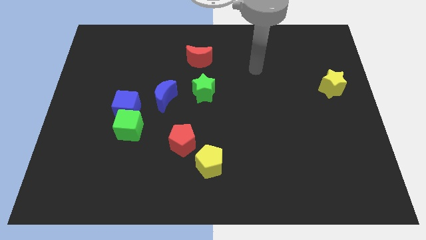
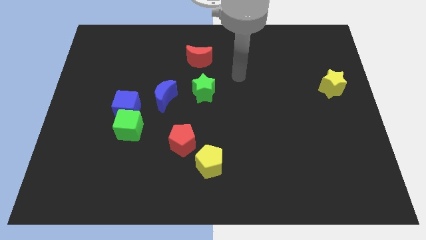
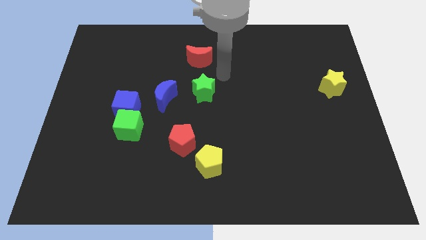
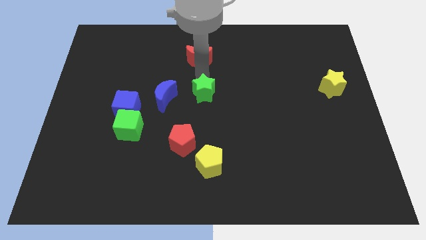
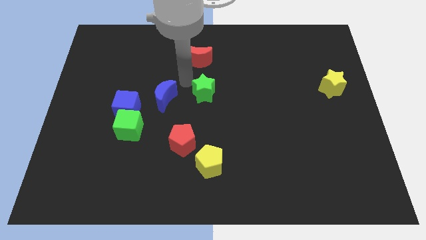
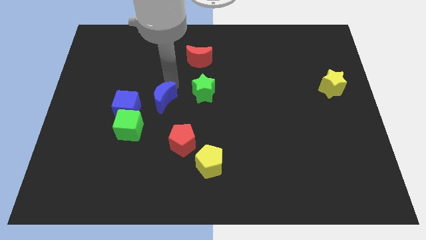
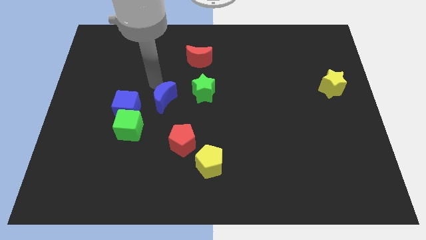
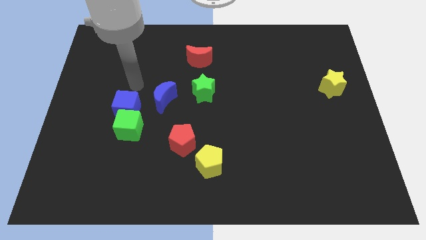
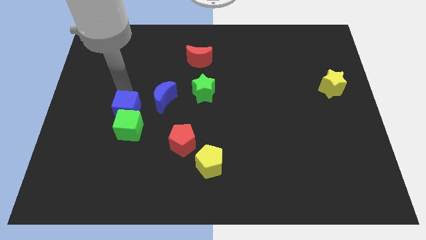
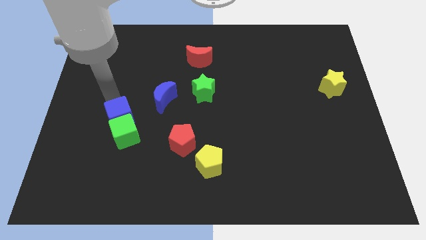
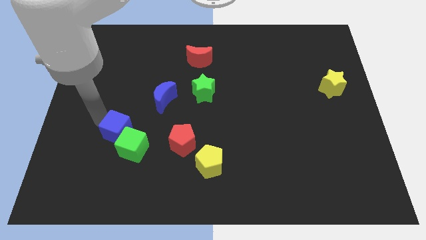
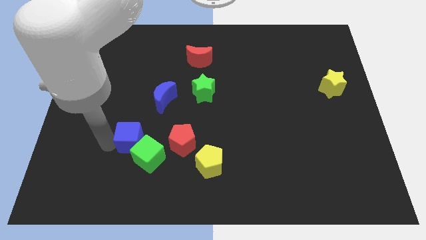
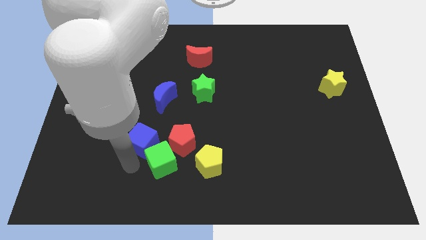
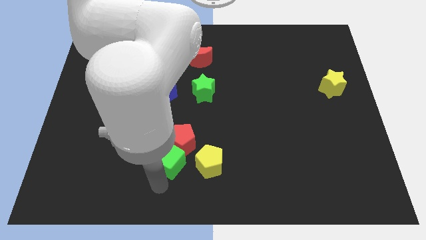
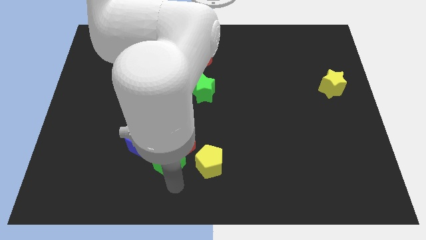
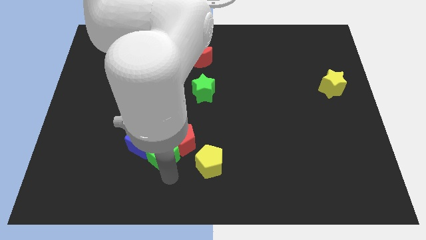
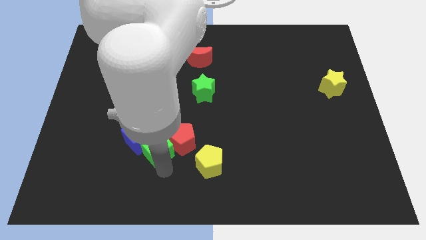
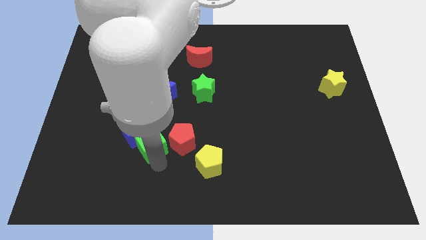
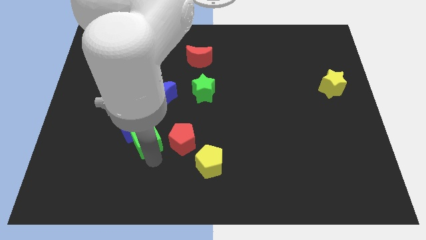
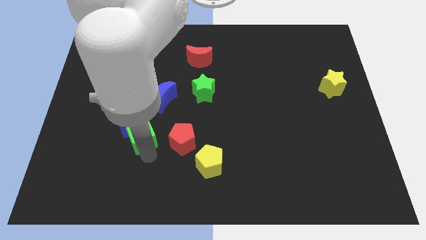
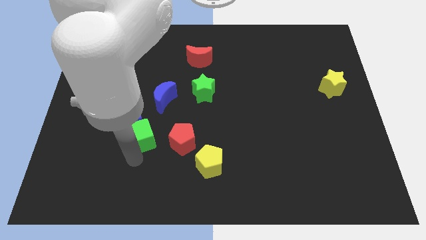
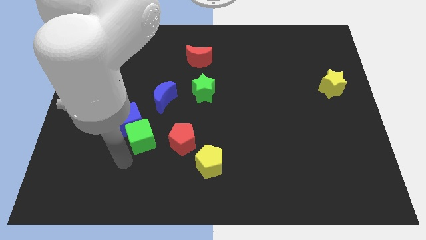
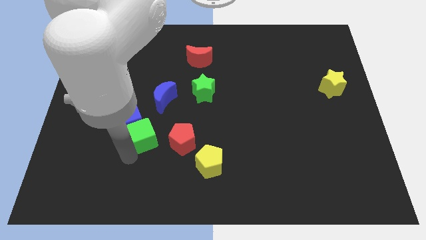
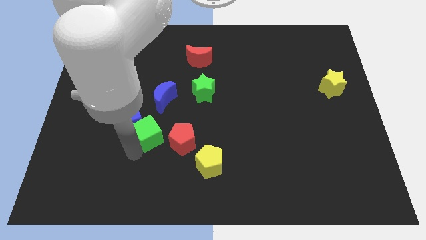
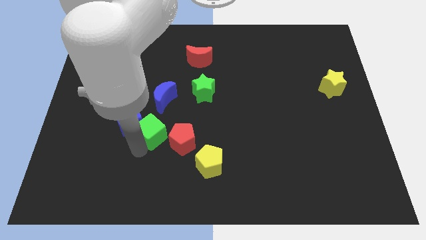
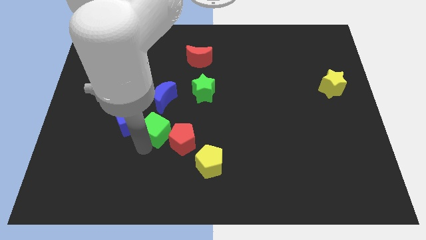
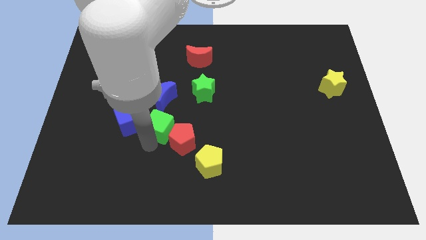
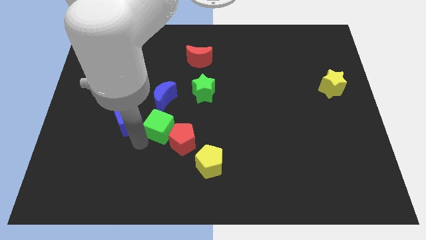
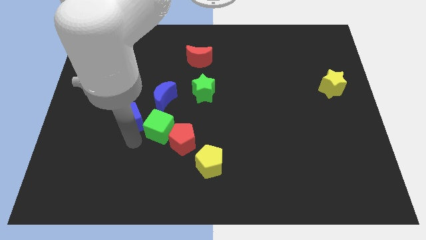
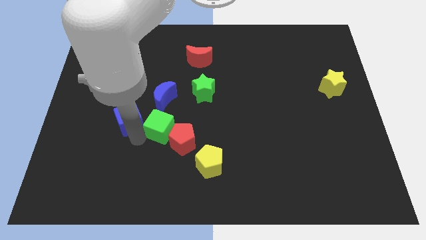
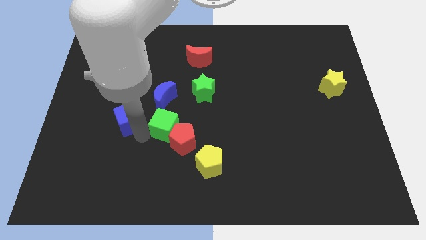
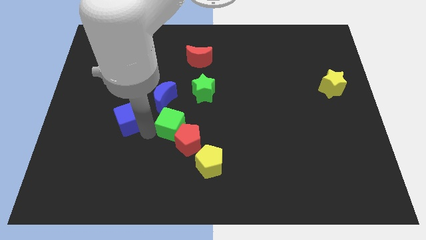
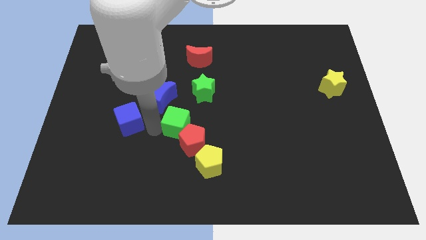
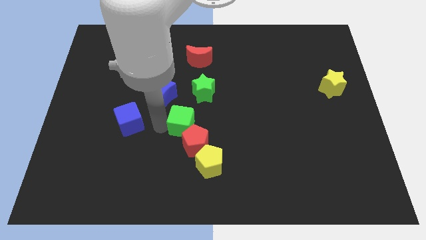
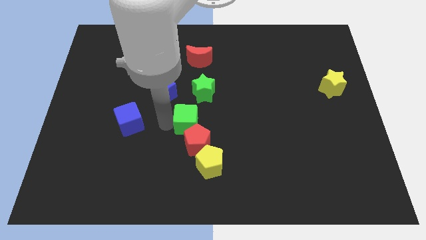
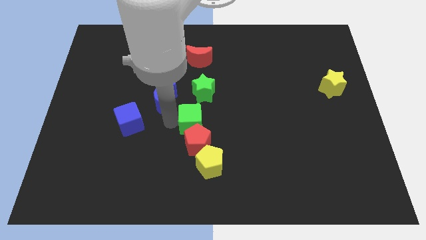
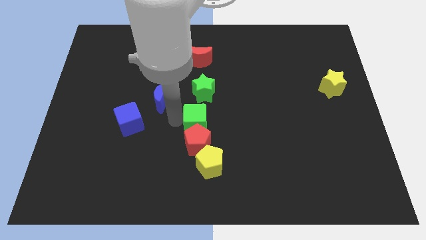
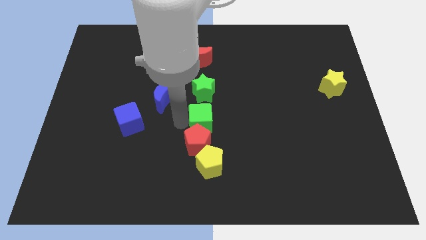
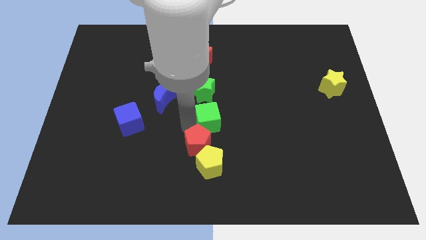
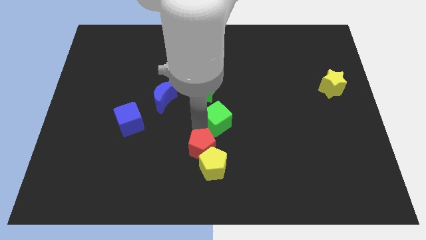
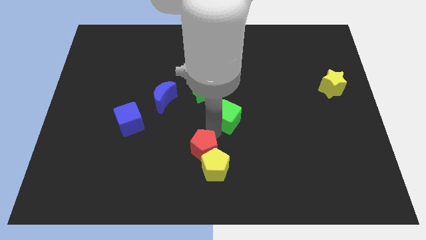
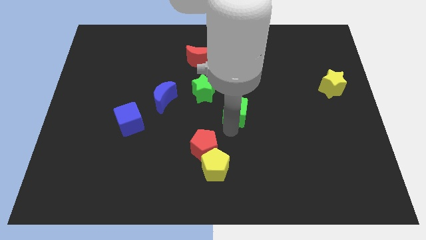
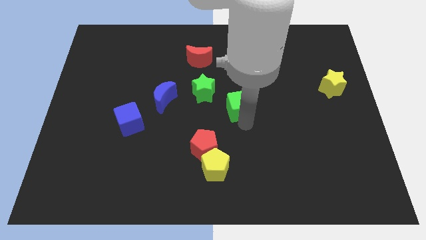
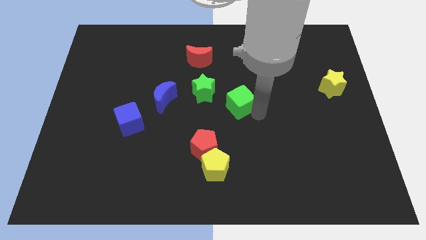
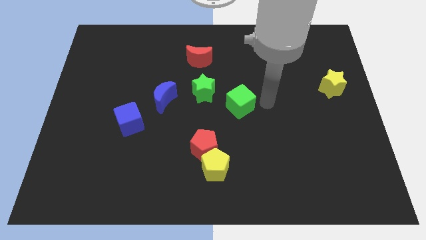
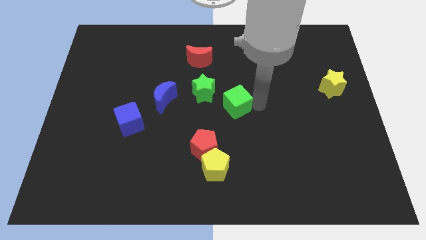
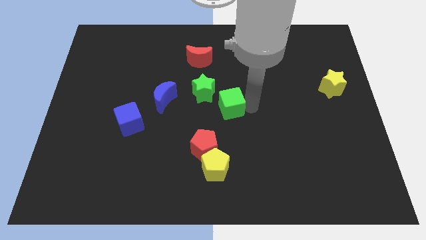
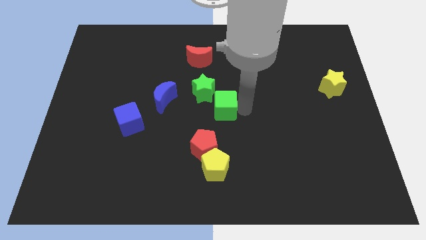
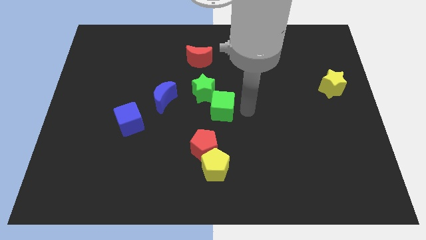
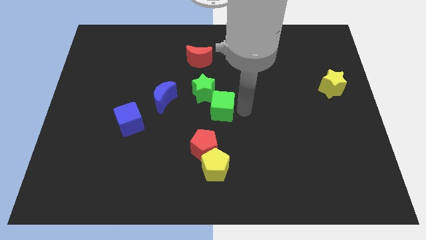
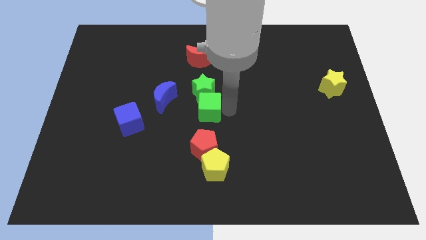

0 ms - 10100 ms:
put the green cube close to the green star

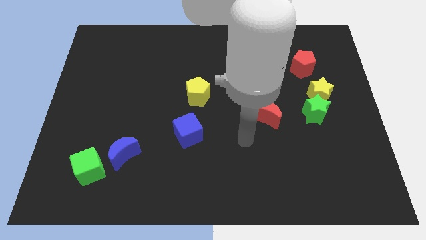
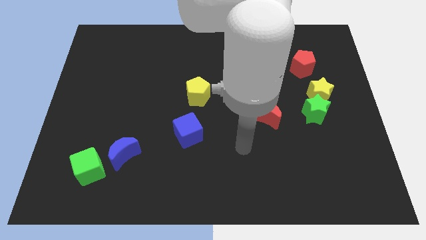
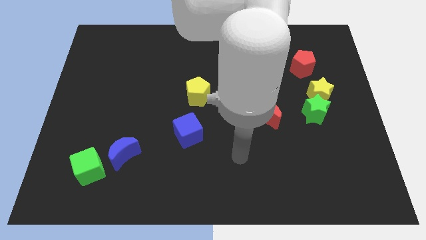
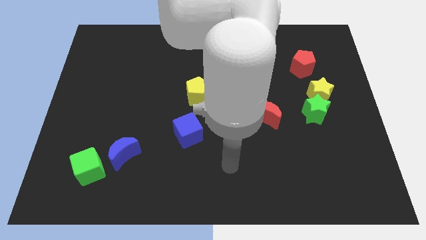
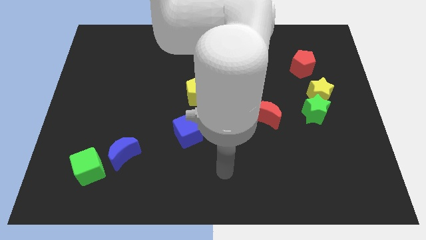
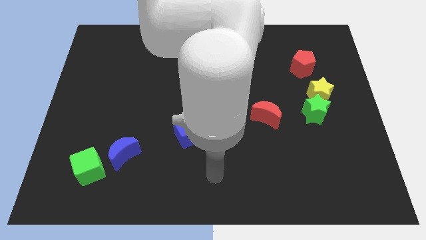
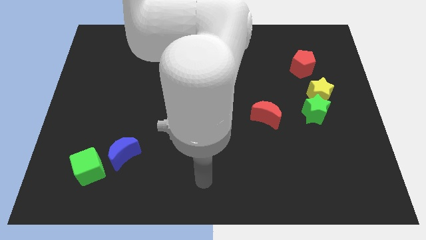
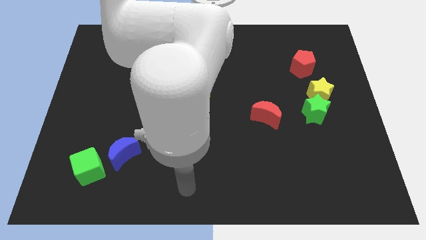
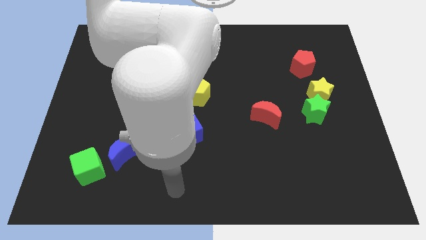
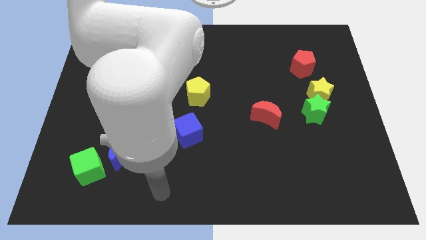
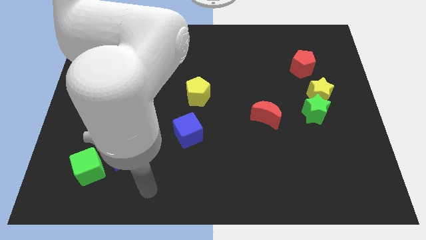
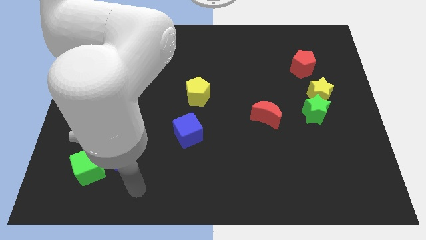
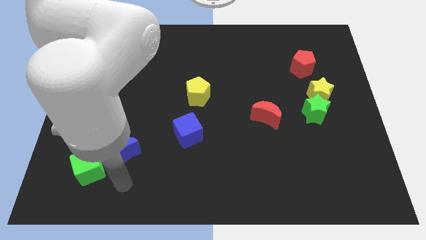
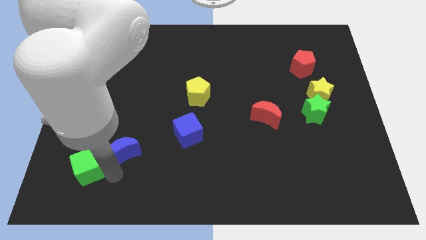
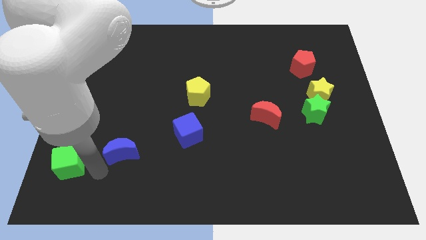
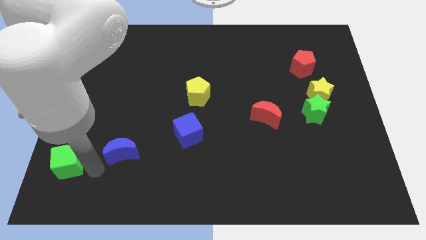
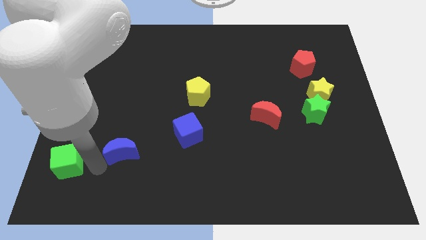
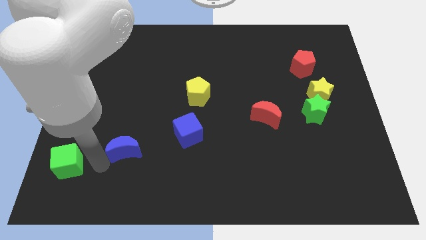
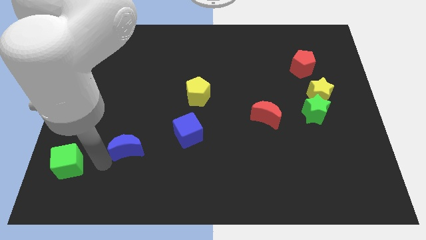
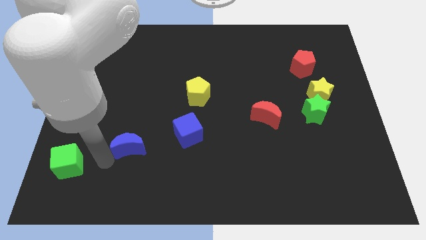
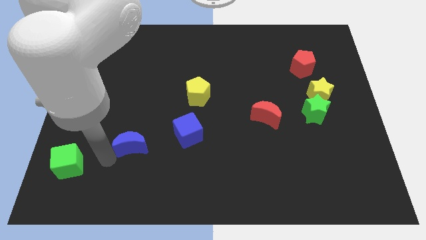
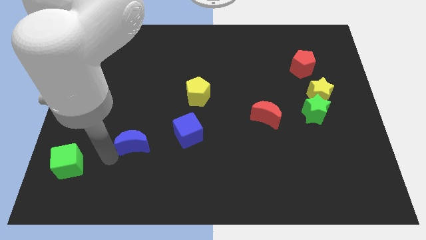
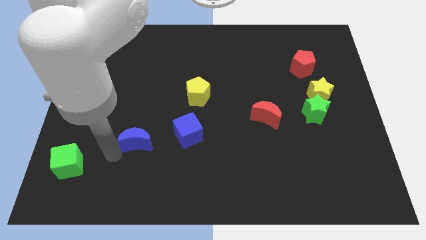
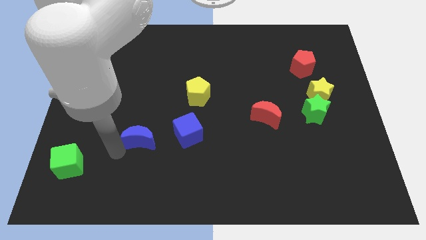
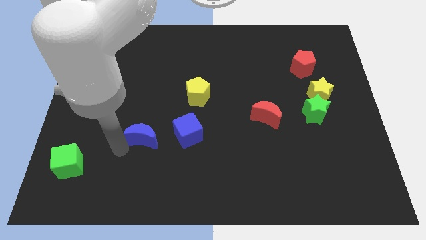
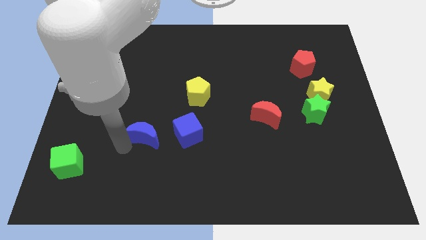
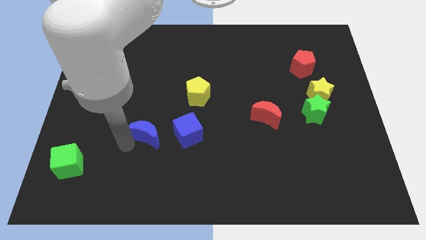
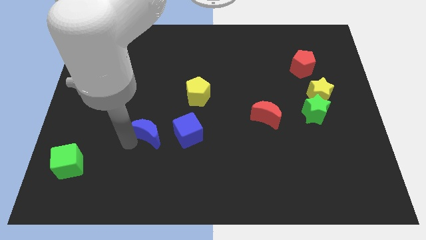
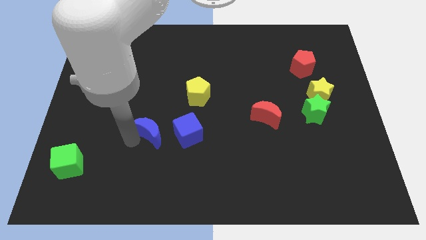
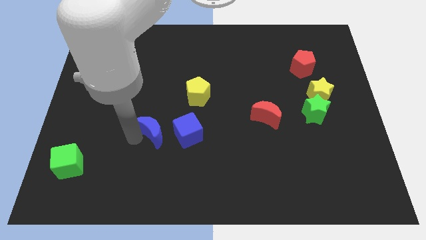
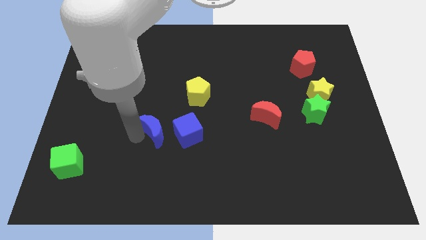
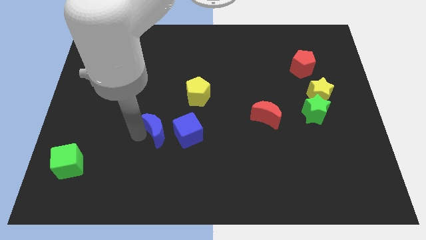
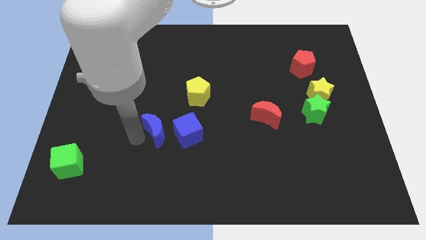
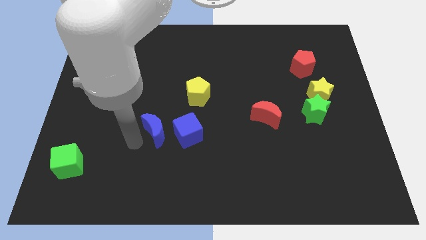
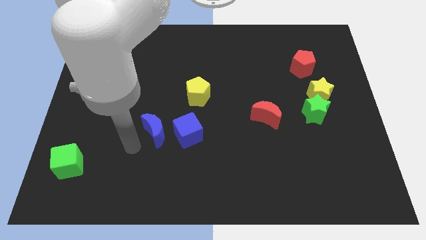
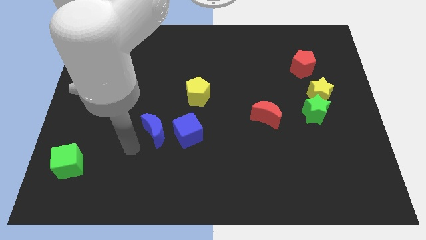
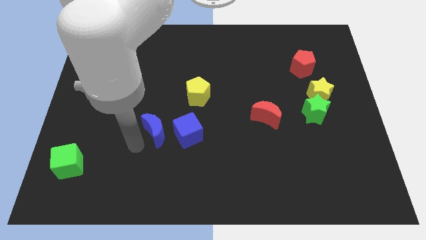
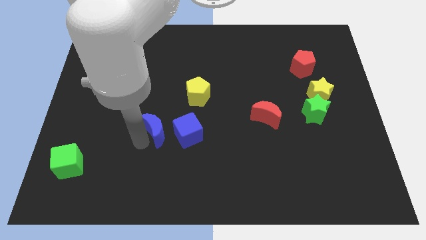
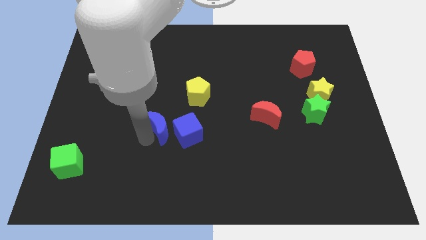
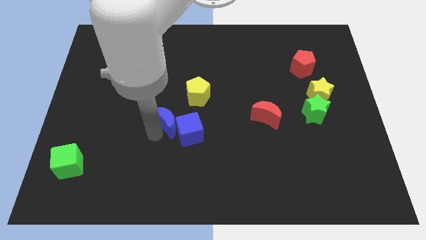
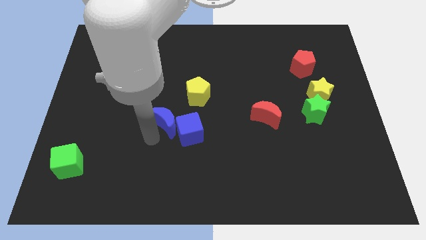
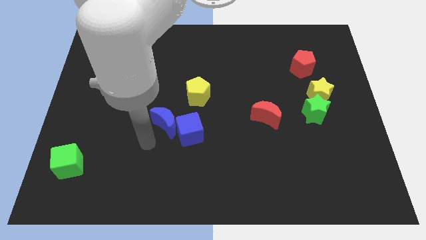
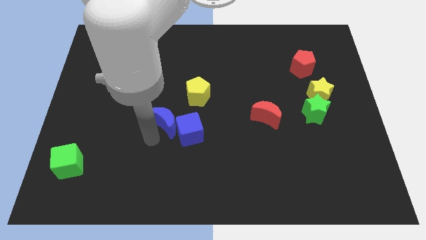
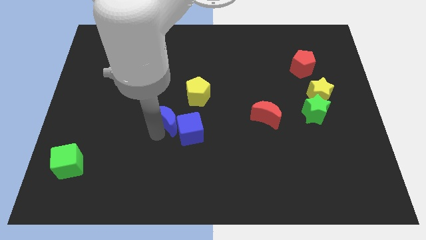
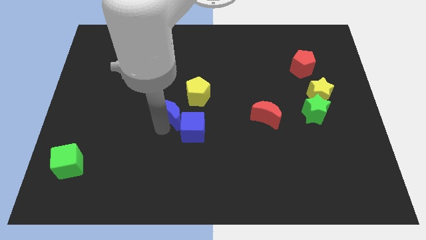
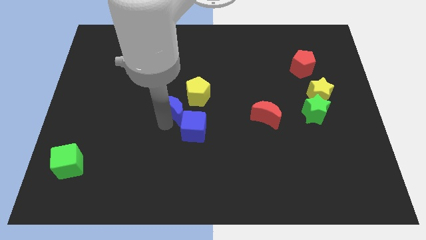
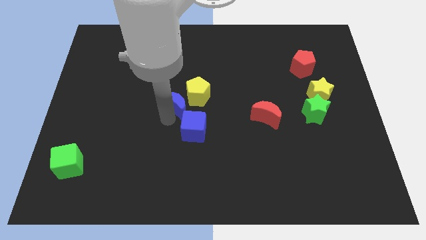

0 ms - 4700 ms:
slide the blue moon next to the yellow pentagon
